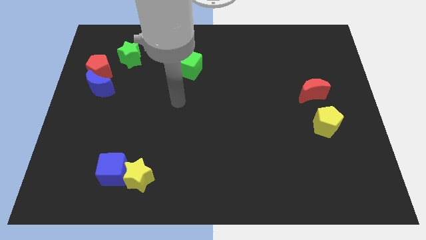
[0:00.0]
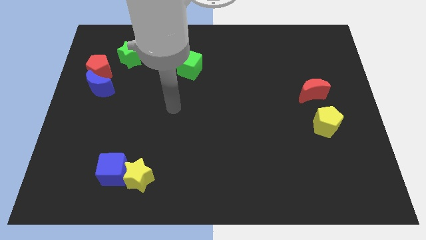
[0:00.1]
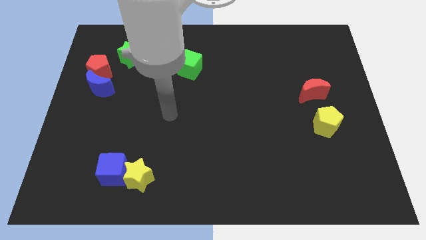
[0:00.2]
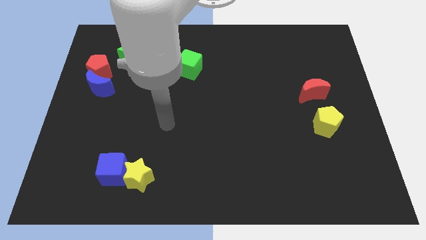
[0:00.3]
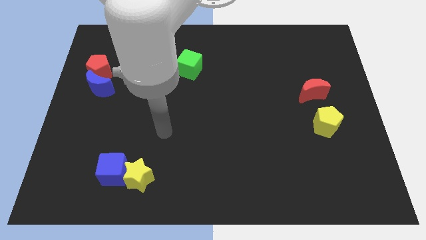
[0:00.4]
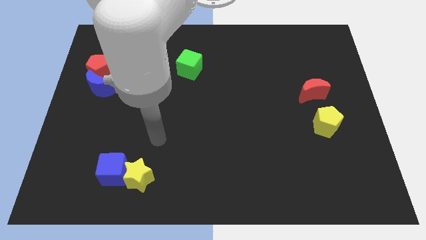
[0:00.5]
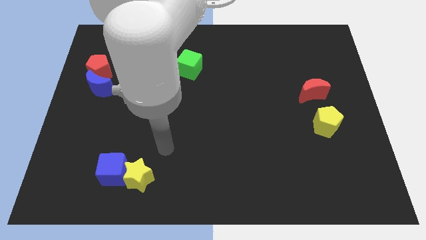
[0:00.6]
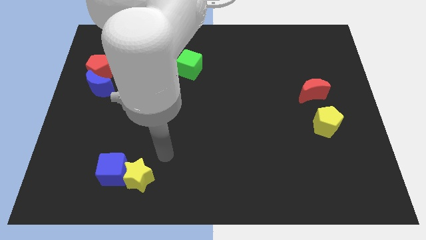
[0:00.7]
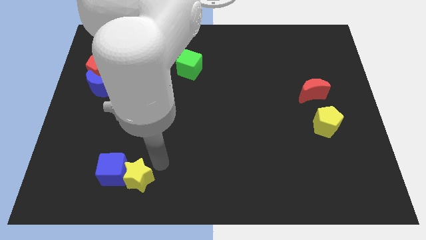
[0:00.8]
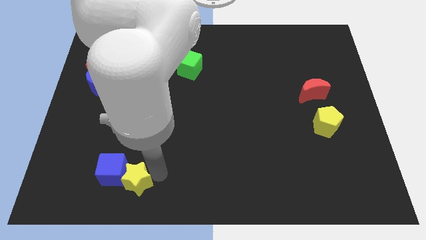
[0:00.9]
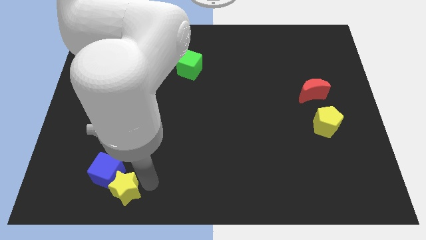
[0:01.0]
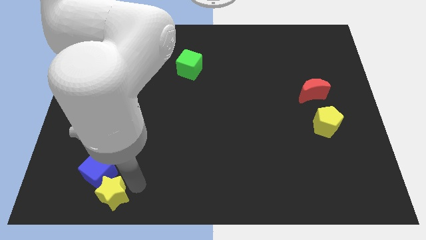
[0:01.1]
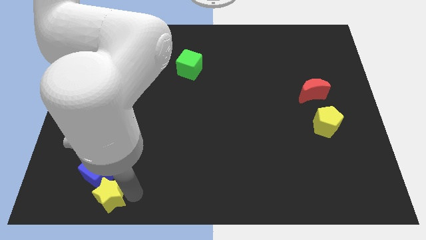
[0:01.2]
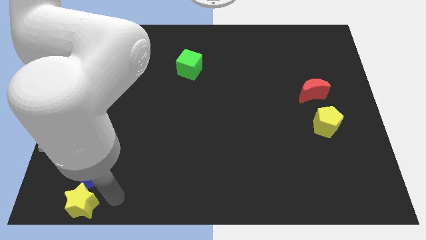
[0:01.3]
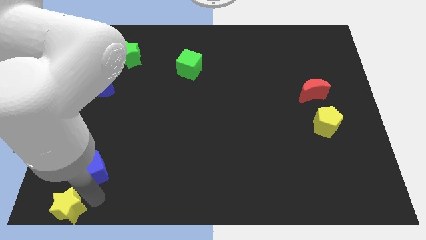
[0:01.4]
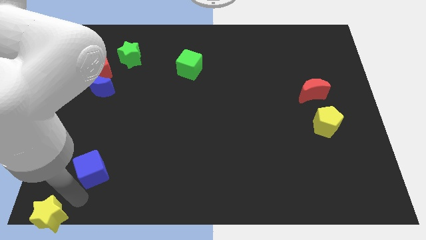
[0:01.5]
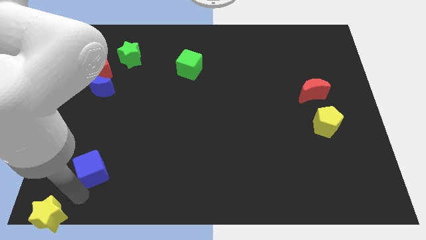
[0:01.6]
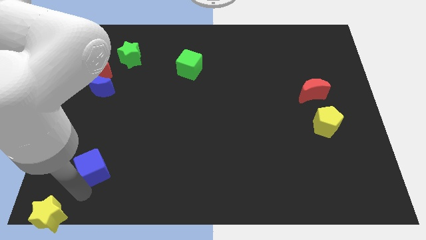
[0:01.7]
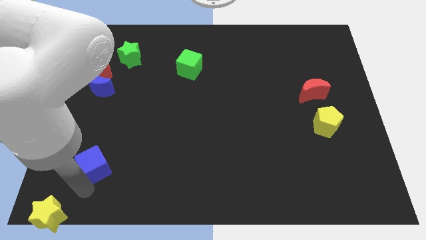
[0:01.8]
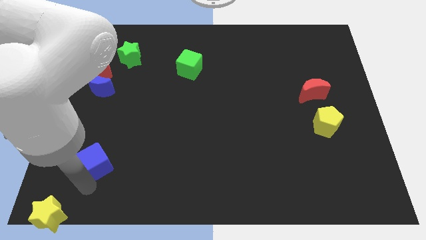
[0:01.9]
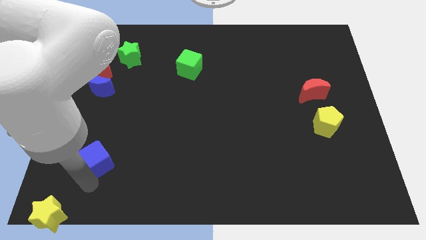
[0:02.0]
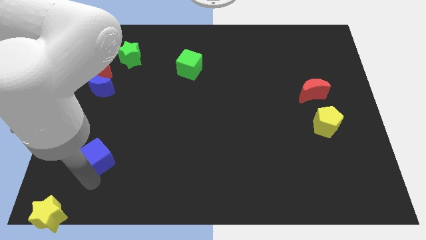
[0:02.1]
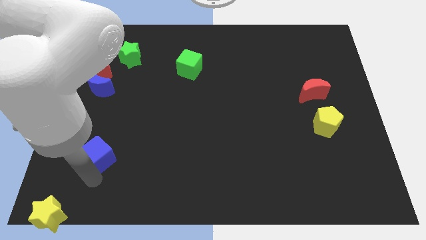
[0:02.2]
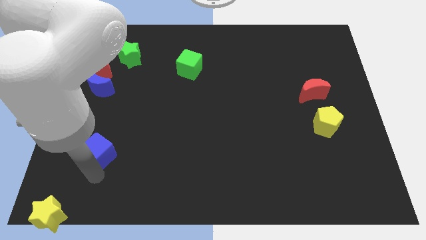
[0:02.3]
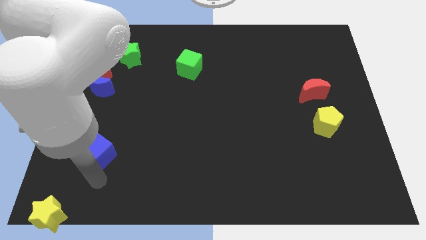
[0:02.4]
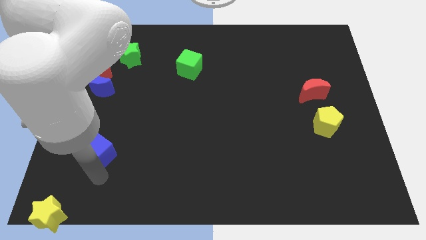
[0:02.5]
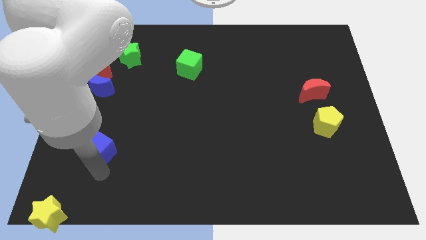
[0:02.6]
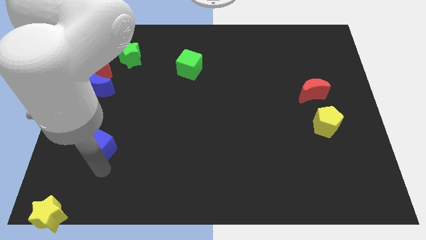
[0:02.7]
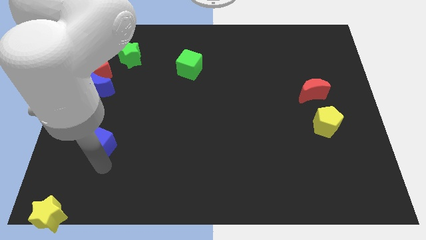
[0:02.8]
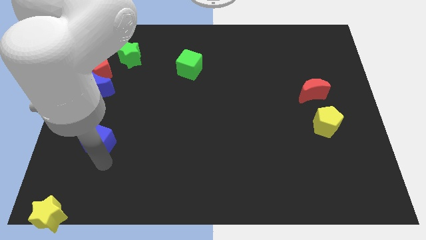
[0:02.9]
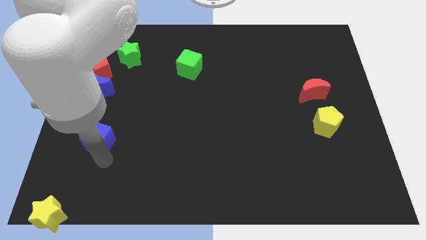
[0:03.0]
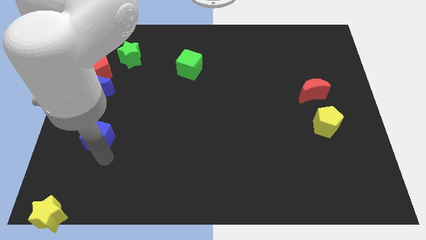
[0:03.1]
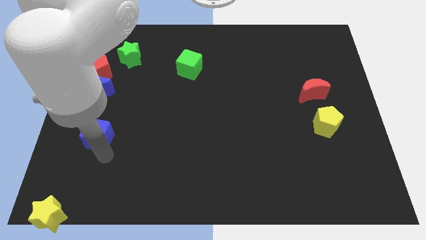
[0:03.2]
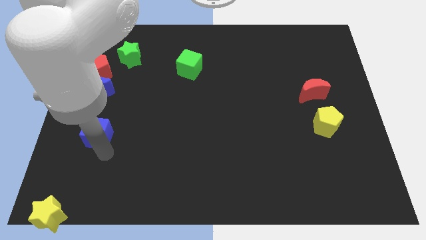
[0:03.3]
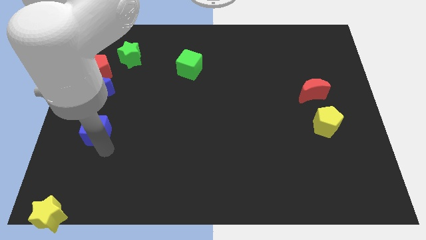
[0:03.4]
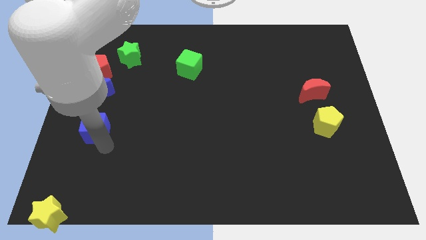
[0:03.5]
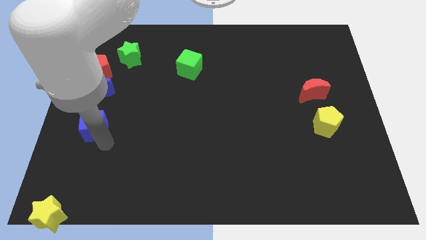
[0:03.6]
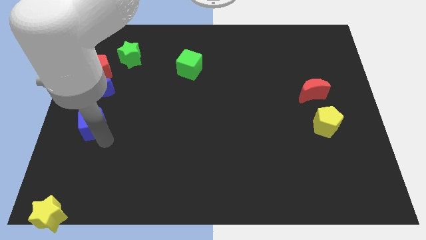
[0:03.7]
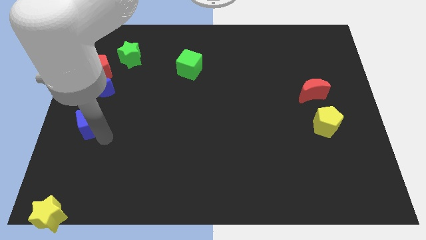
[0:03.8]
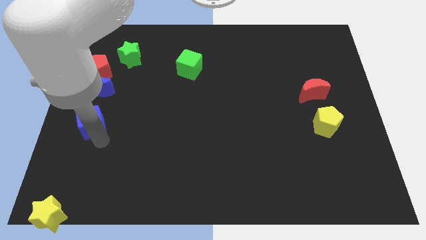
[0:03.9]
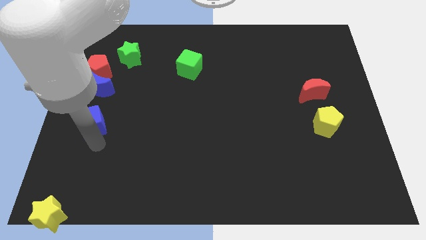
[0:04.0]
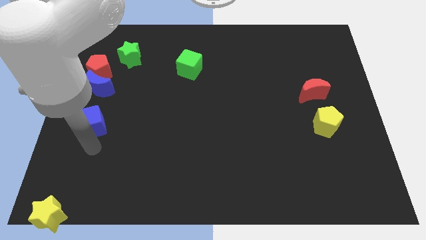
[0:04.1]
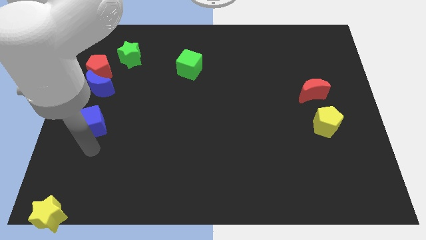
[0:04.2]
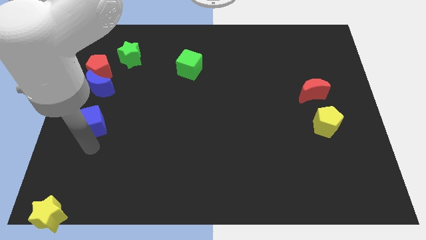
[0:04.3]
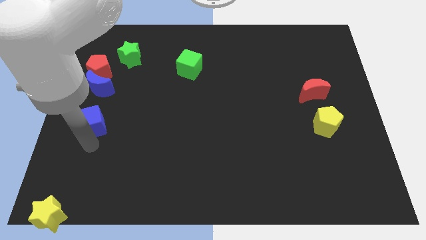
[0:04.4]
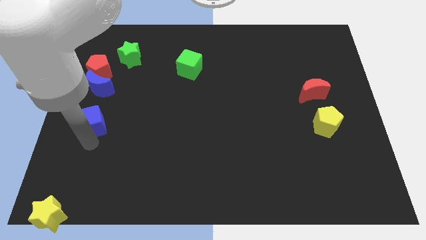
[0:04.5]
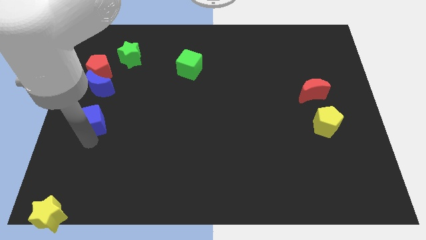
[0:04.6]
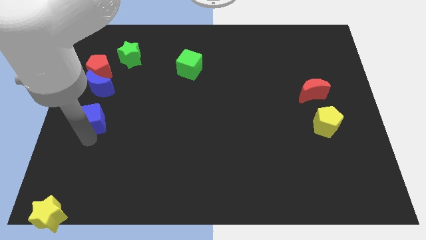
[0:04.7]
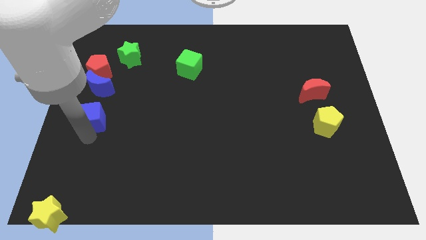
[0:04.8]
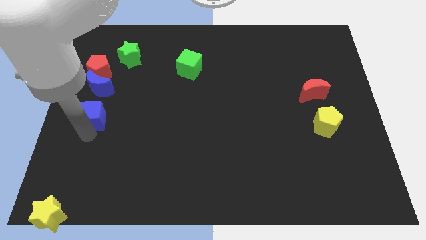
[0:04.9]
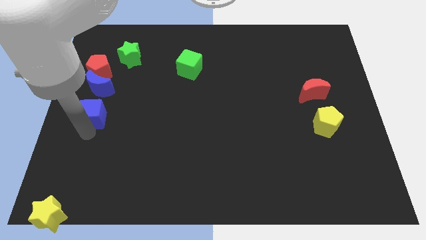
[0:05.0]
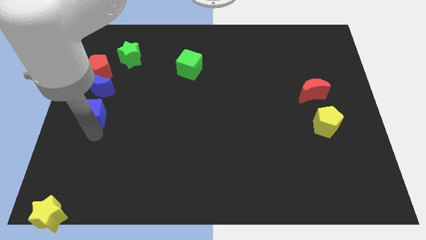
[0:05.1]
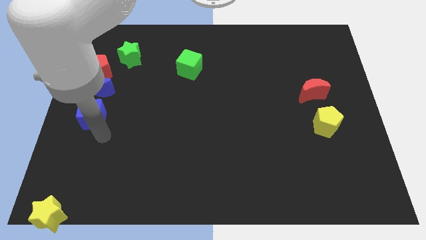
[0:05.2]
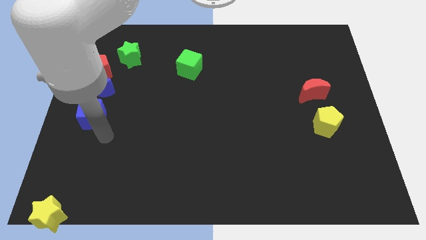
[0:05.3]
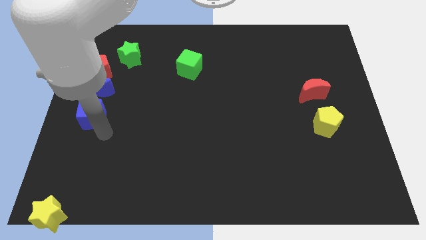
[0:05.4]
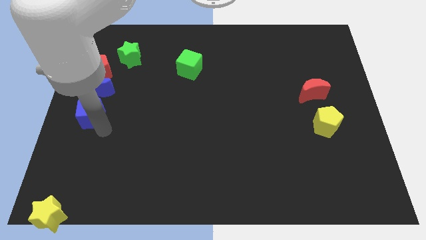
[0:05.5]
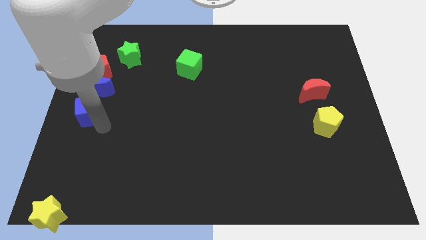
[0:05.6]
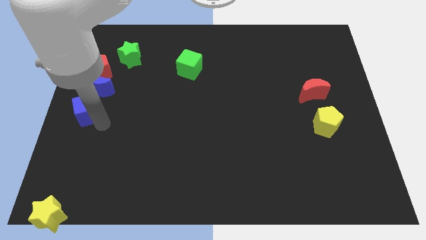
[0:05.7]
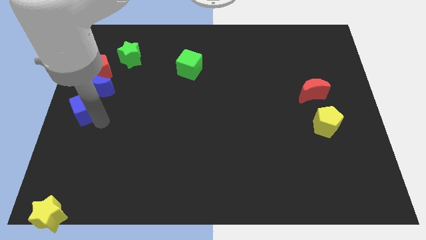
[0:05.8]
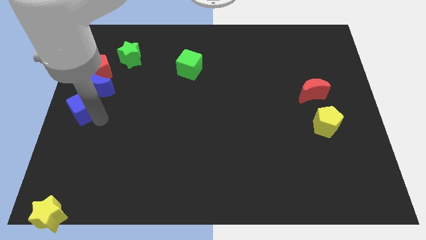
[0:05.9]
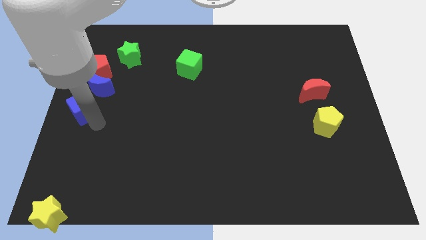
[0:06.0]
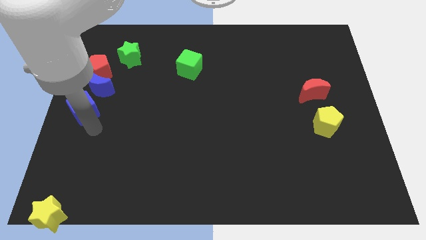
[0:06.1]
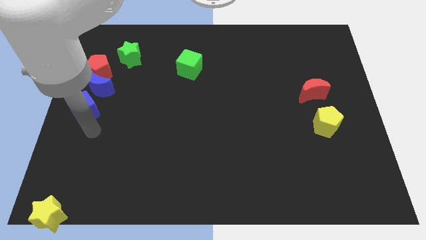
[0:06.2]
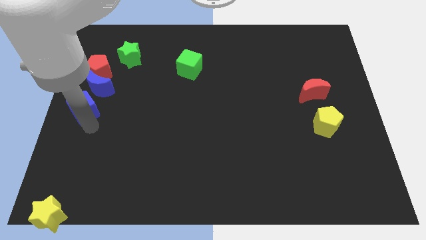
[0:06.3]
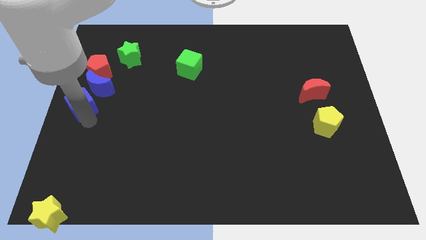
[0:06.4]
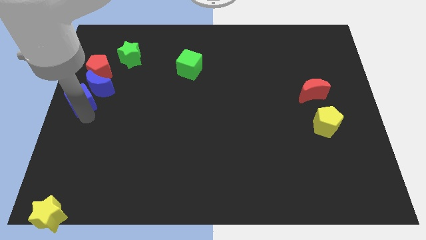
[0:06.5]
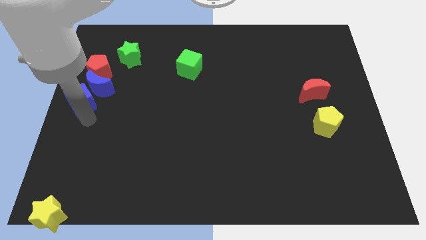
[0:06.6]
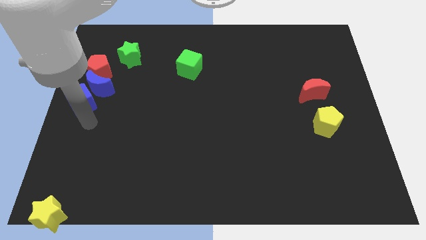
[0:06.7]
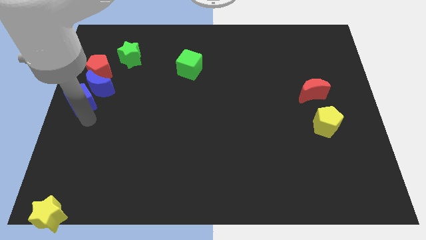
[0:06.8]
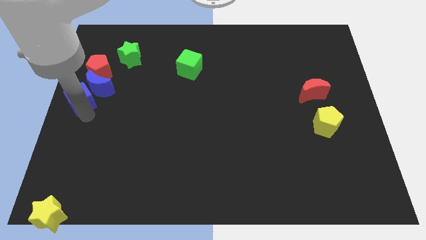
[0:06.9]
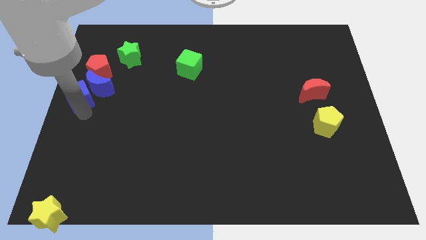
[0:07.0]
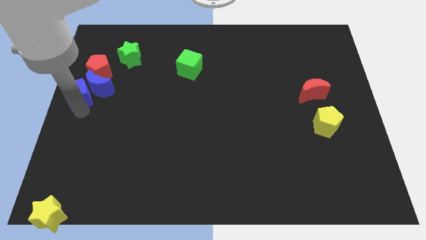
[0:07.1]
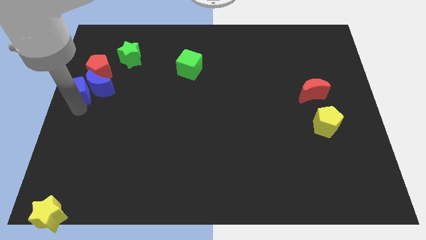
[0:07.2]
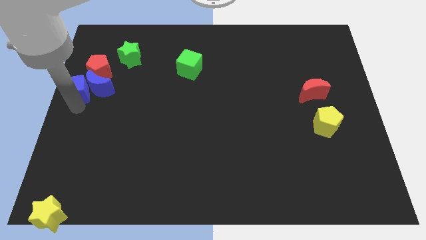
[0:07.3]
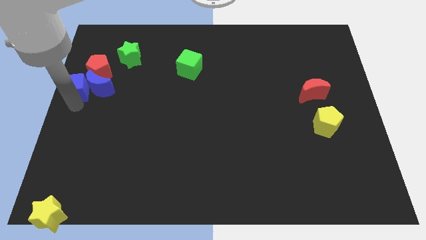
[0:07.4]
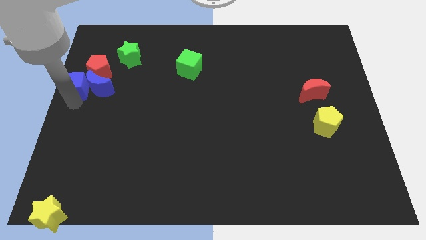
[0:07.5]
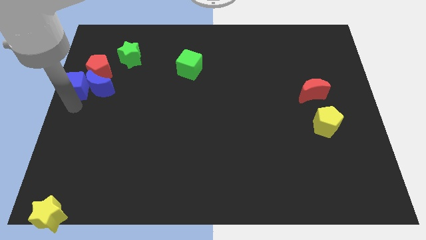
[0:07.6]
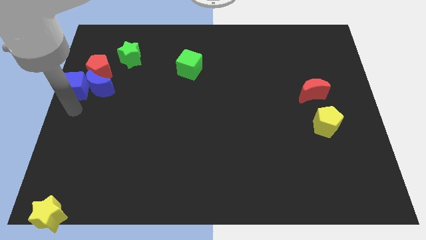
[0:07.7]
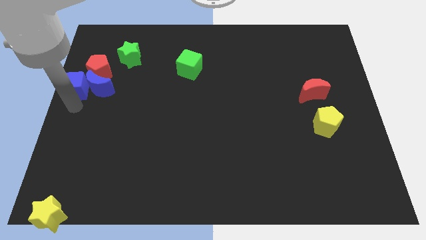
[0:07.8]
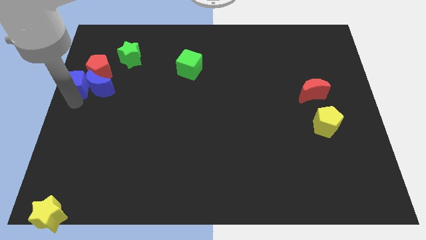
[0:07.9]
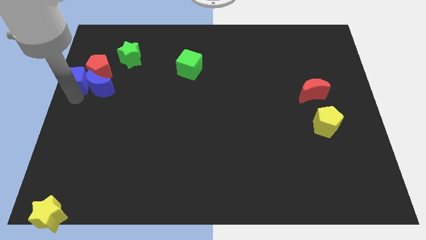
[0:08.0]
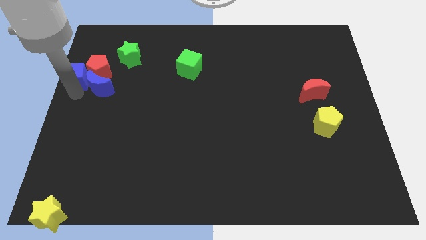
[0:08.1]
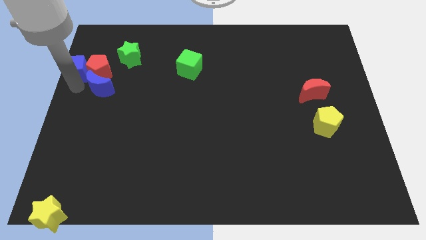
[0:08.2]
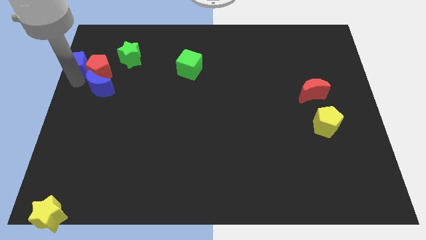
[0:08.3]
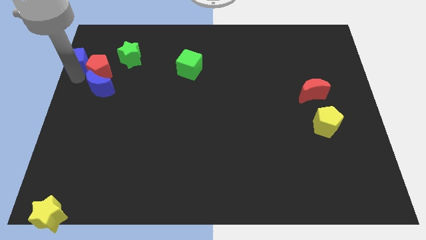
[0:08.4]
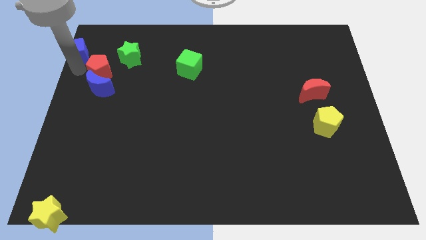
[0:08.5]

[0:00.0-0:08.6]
slide the blue cube to the upper left corner
